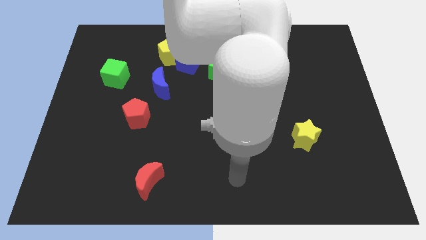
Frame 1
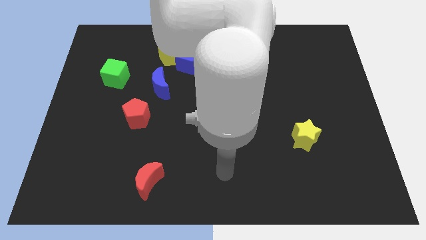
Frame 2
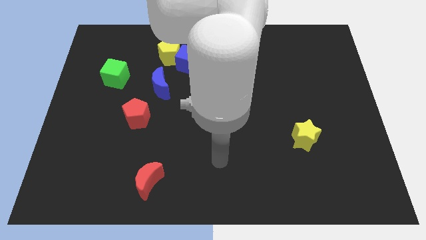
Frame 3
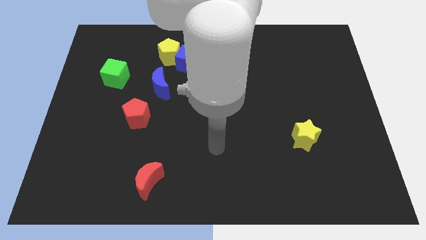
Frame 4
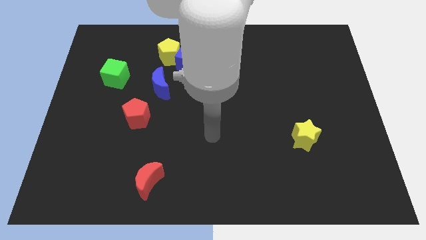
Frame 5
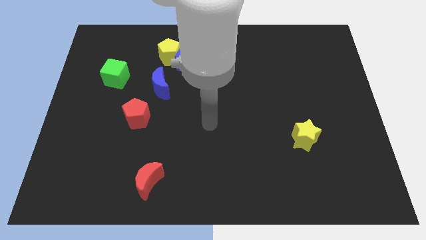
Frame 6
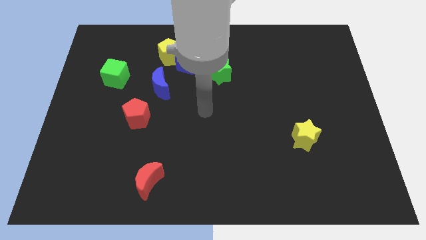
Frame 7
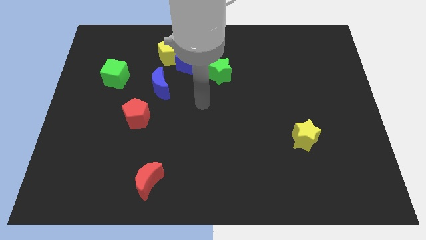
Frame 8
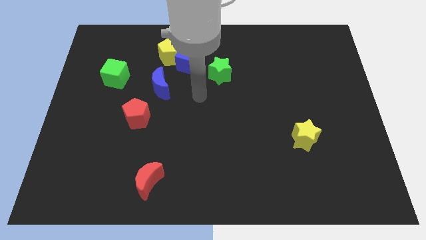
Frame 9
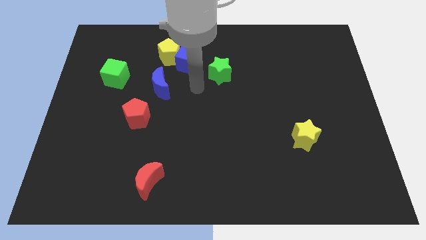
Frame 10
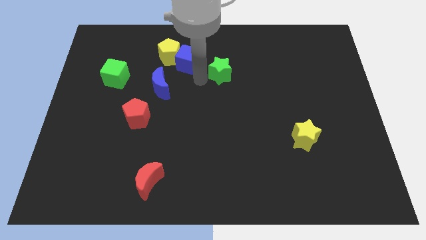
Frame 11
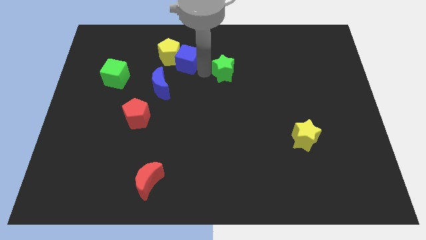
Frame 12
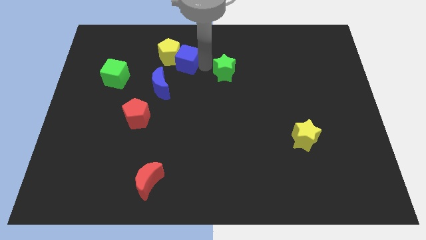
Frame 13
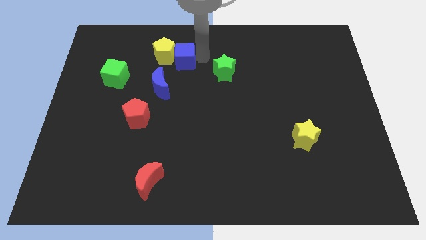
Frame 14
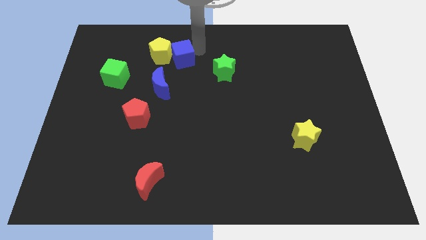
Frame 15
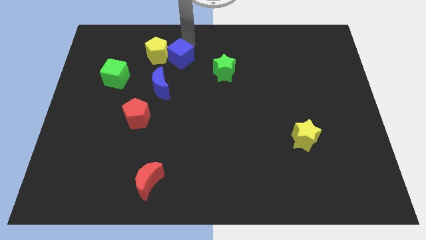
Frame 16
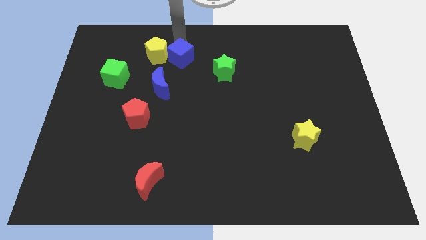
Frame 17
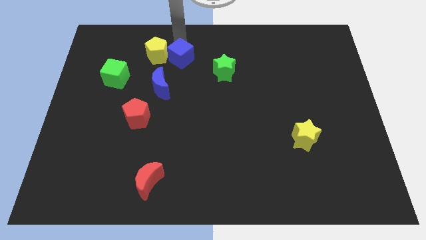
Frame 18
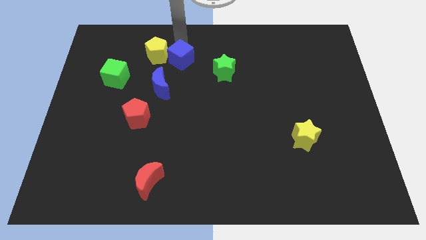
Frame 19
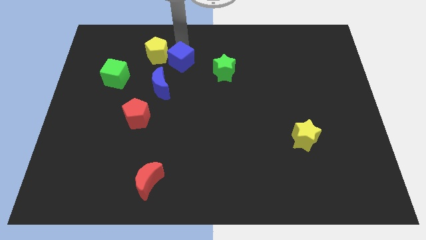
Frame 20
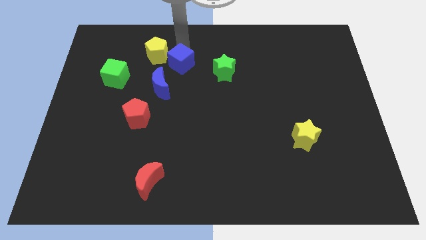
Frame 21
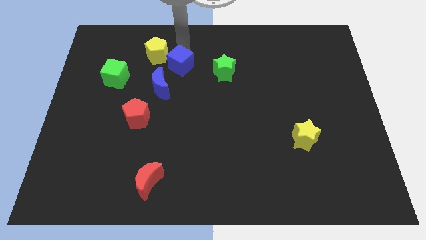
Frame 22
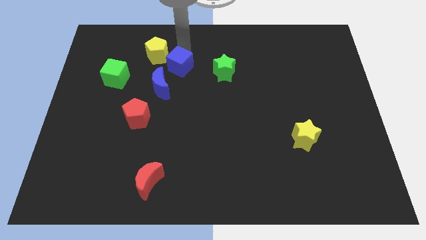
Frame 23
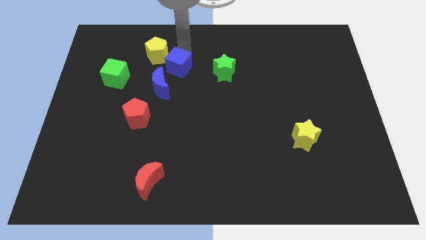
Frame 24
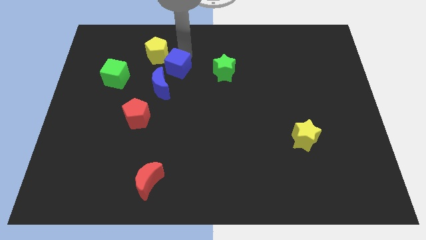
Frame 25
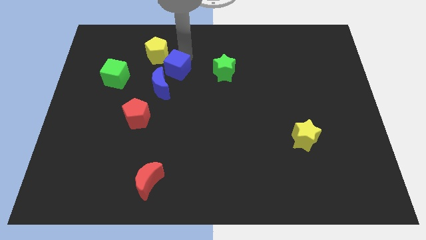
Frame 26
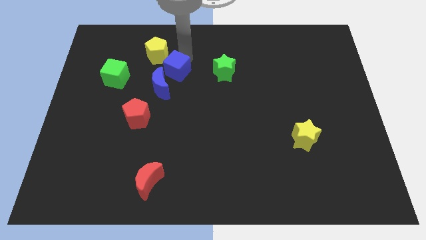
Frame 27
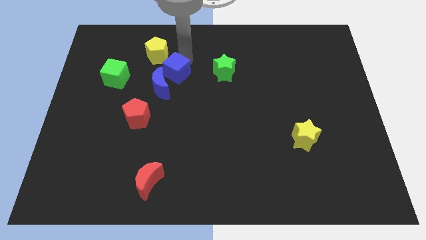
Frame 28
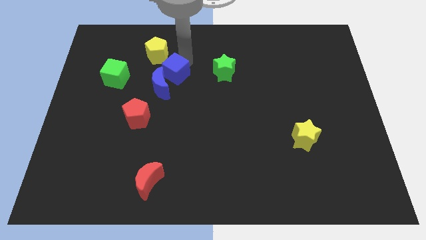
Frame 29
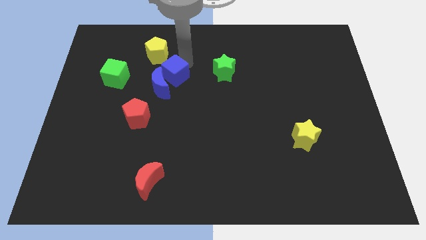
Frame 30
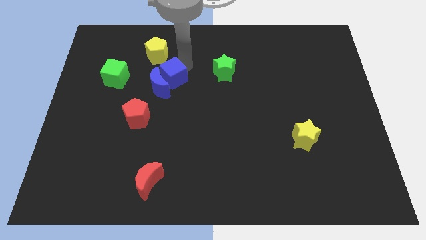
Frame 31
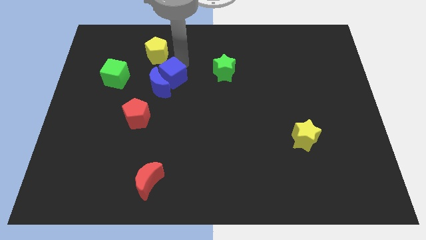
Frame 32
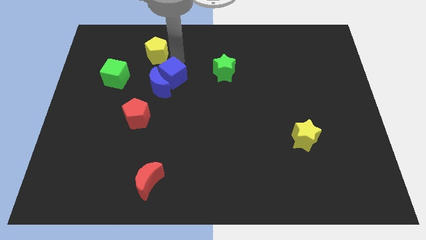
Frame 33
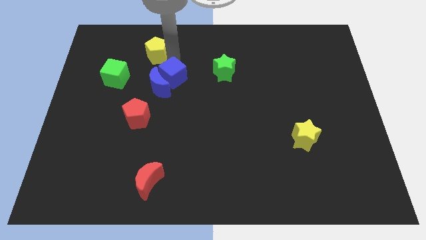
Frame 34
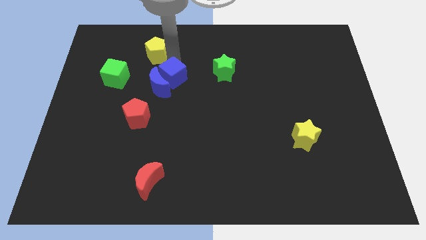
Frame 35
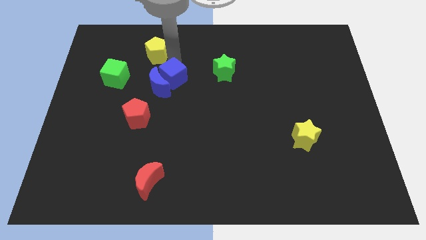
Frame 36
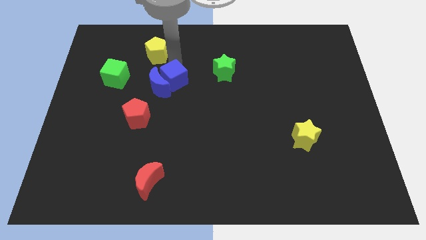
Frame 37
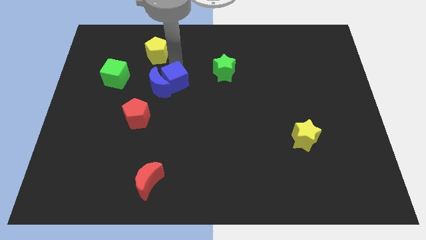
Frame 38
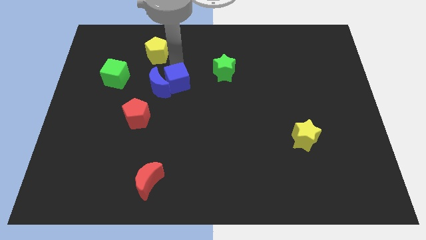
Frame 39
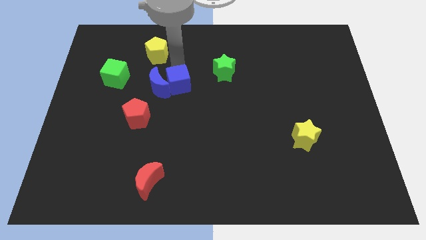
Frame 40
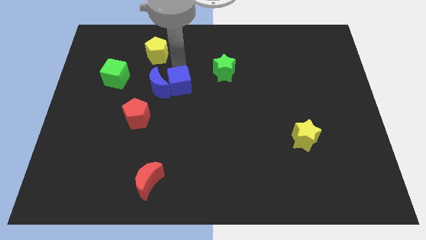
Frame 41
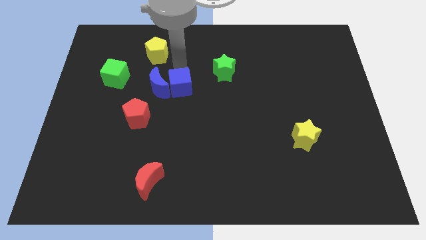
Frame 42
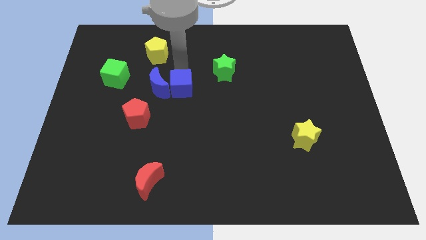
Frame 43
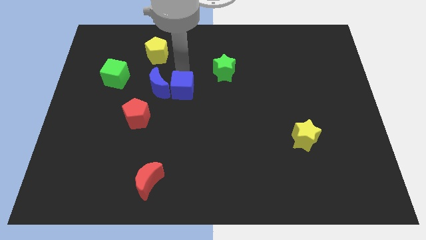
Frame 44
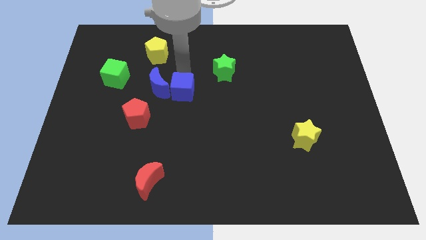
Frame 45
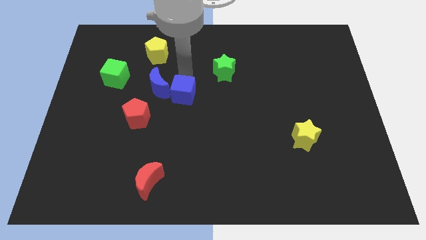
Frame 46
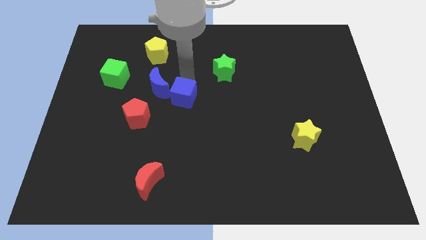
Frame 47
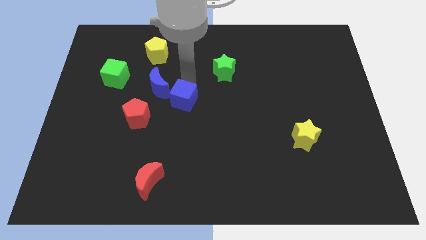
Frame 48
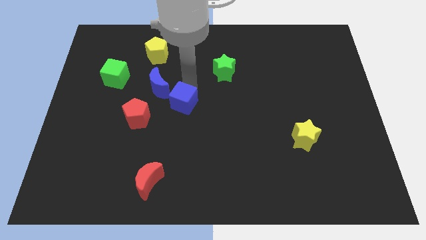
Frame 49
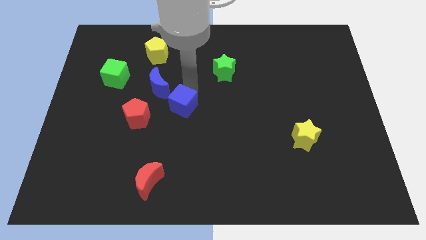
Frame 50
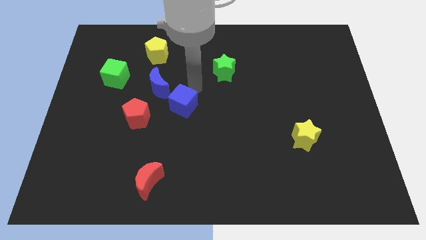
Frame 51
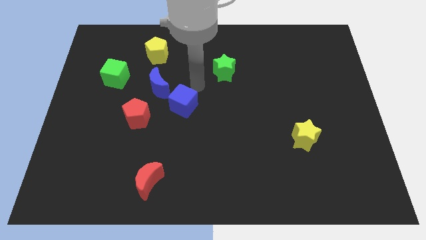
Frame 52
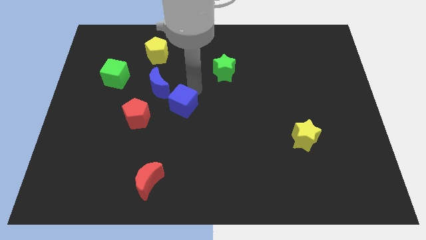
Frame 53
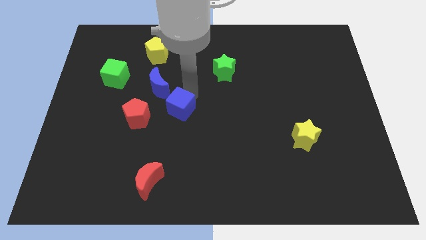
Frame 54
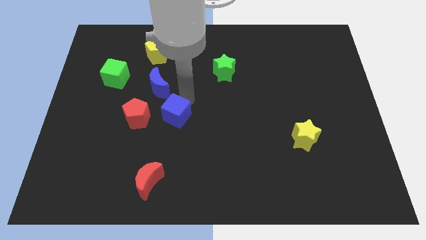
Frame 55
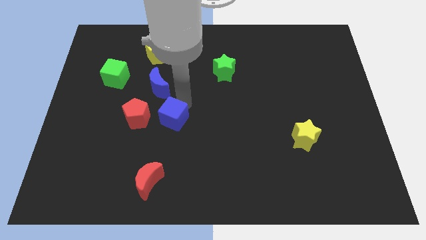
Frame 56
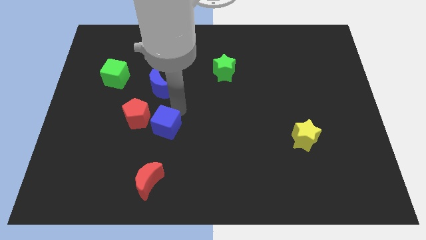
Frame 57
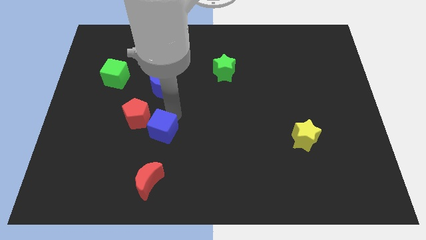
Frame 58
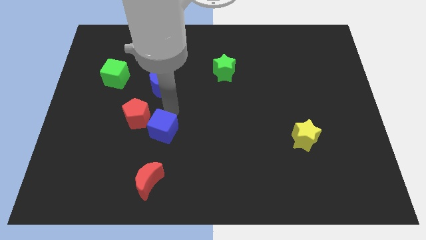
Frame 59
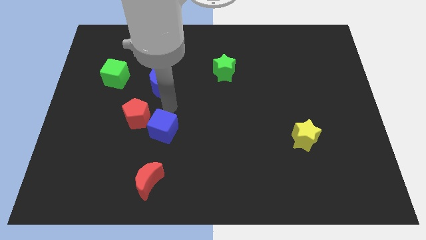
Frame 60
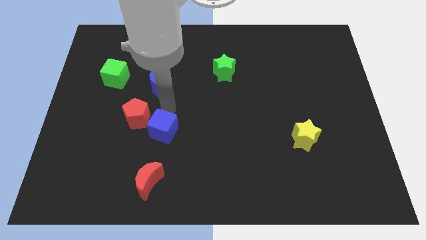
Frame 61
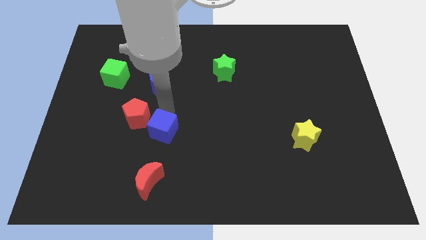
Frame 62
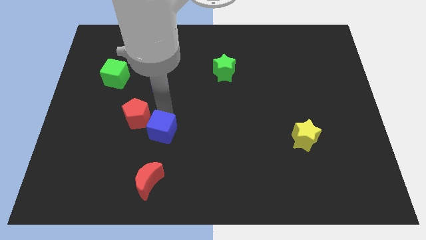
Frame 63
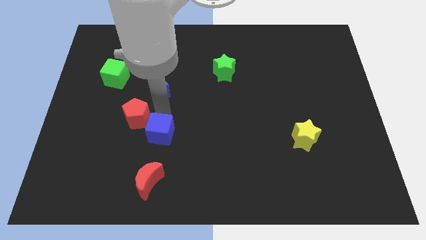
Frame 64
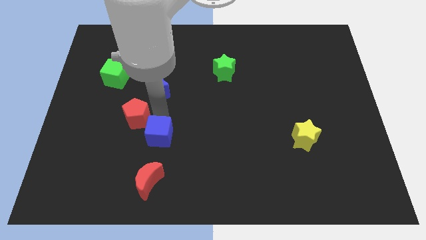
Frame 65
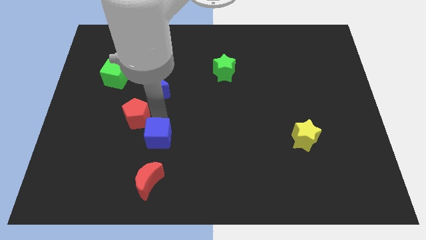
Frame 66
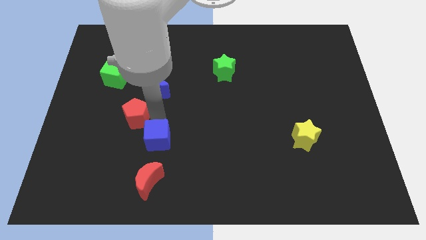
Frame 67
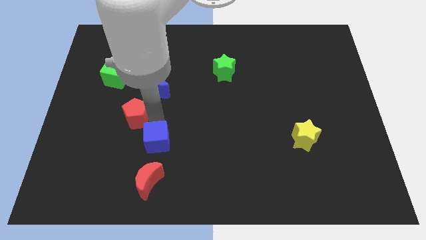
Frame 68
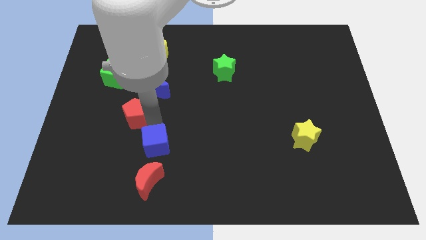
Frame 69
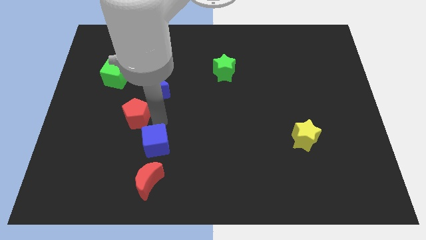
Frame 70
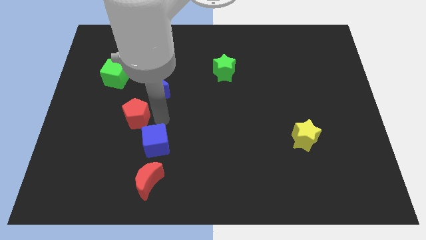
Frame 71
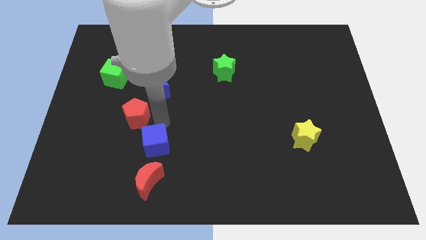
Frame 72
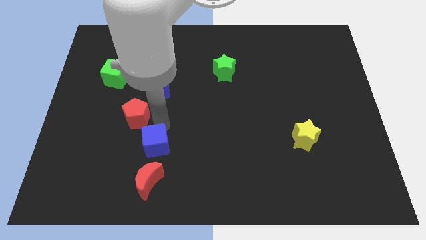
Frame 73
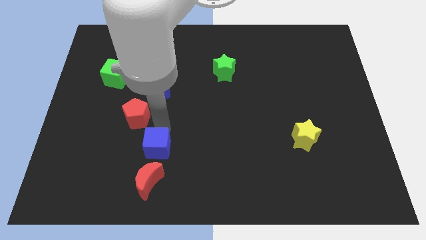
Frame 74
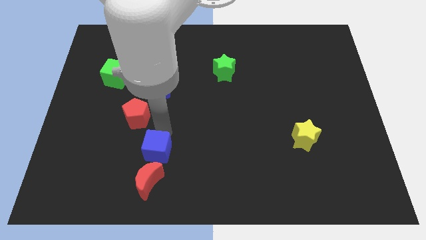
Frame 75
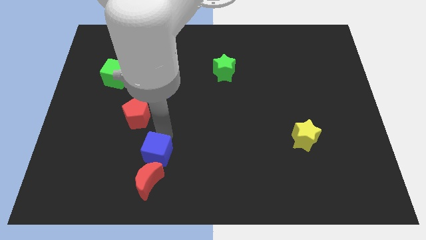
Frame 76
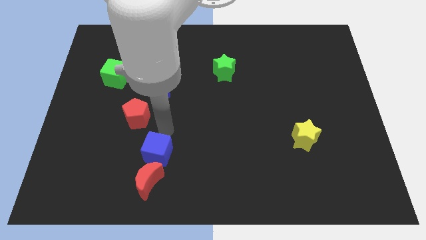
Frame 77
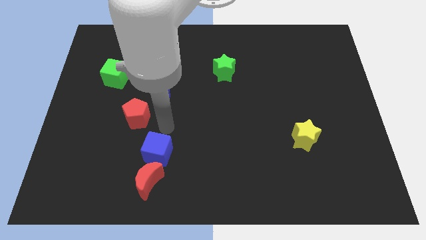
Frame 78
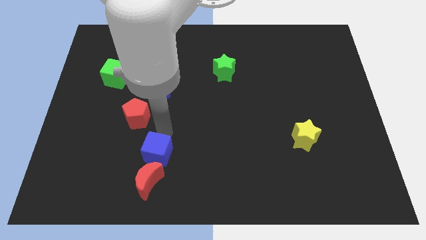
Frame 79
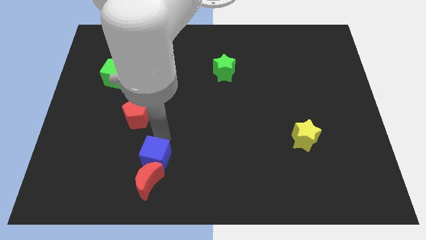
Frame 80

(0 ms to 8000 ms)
push the blue cube towards the red moon
